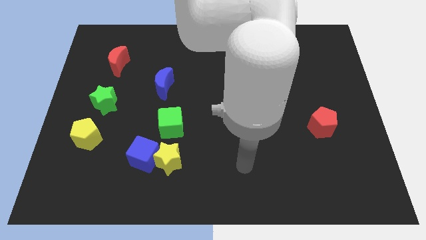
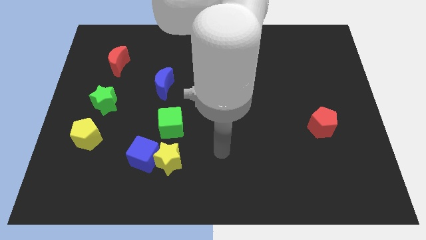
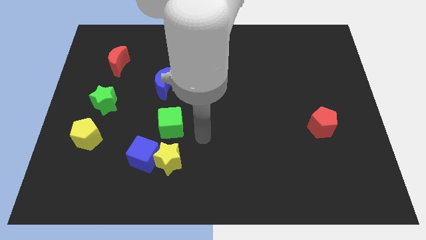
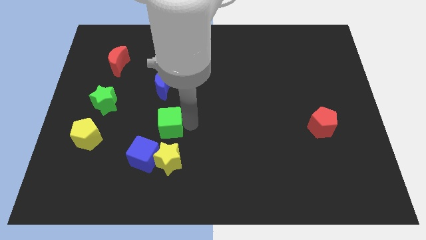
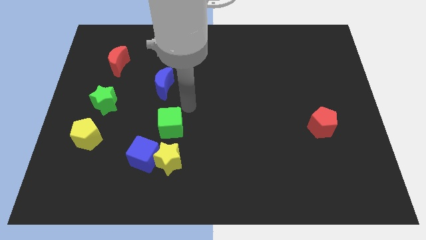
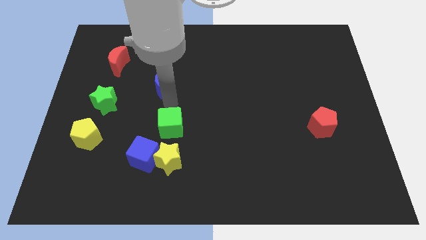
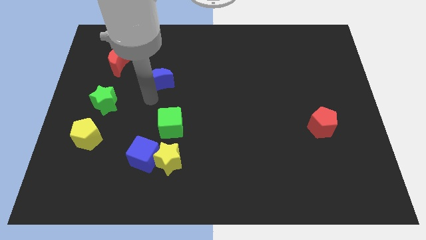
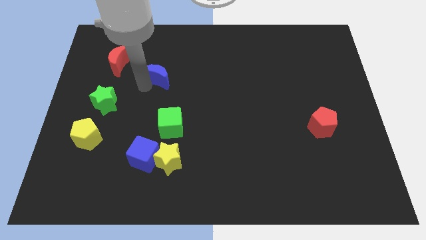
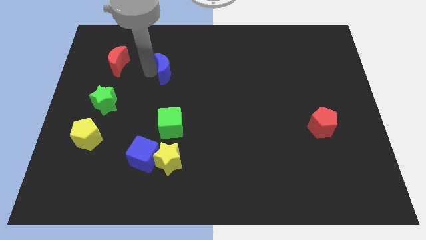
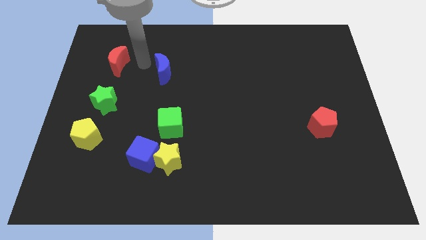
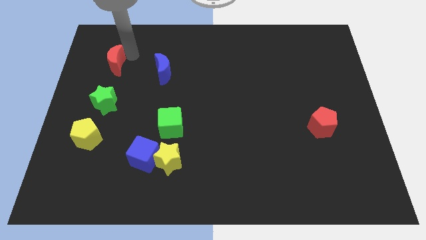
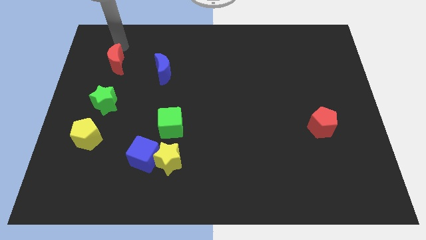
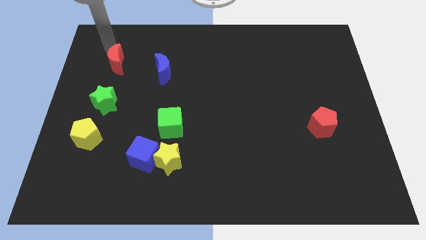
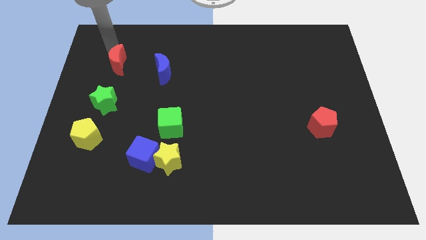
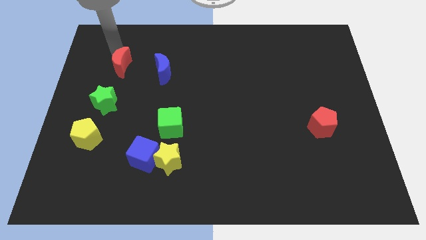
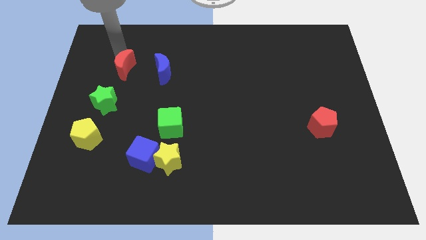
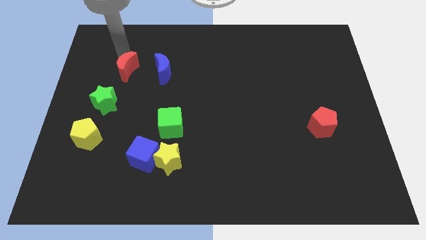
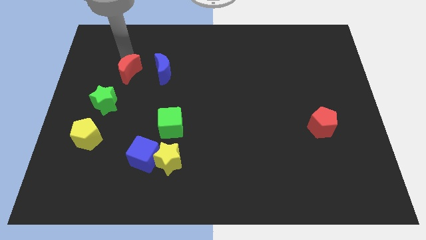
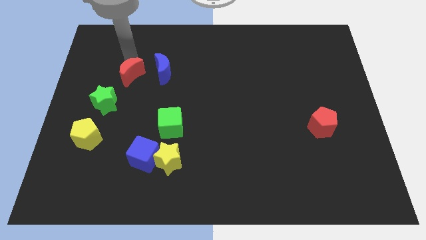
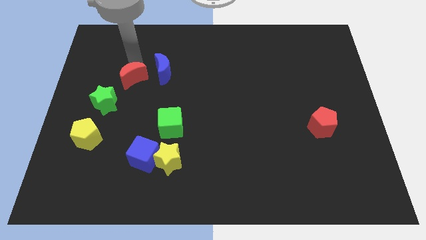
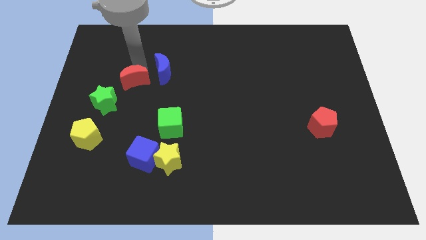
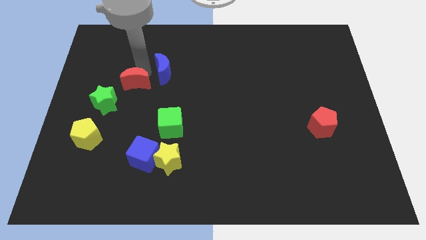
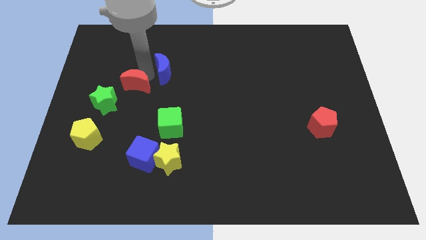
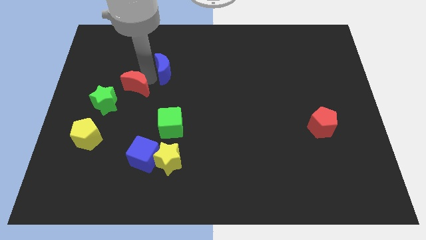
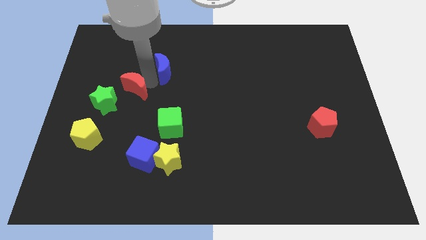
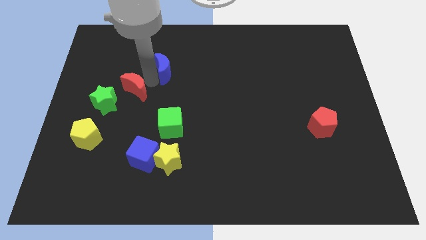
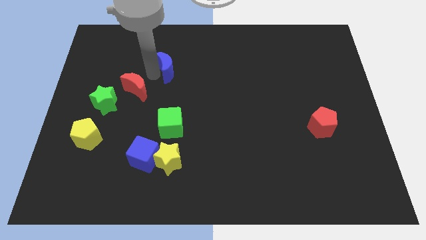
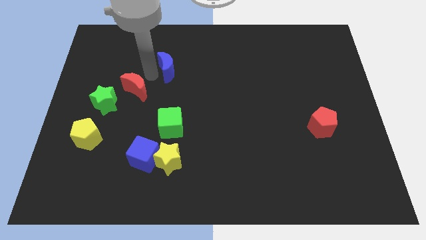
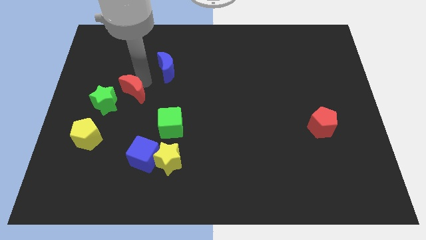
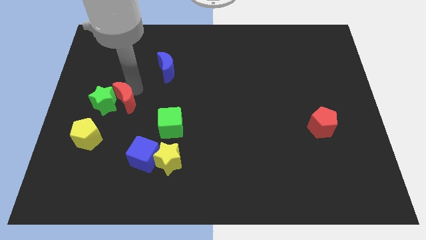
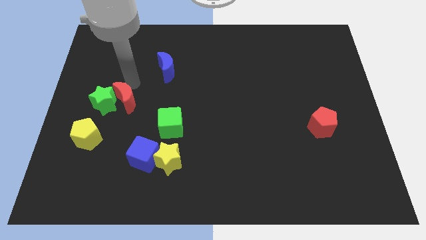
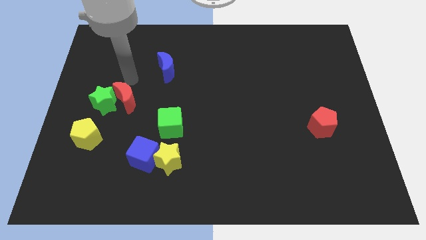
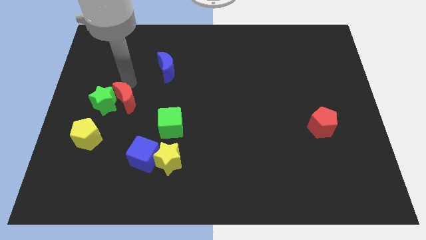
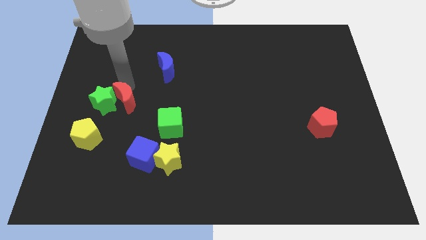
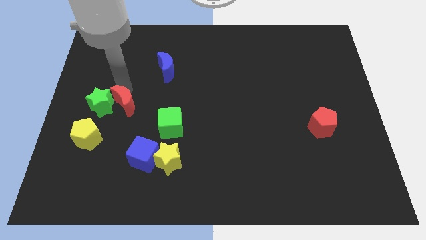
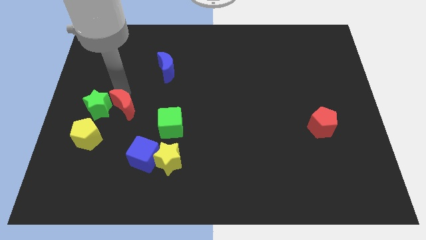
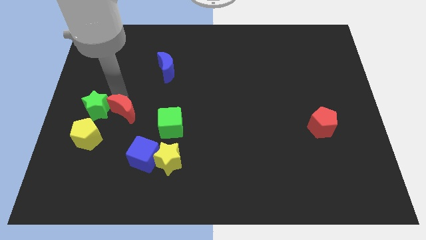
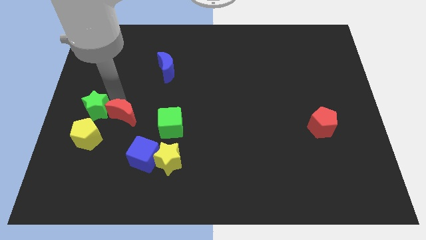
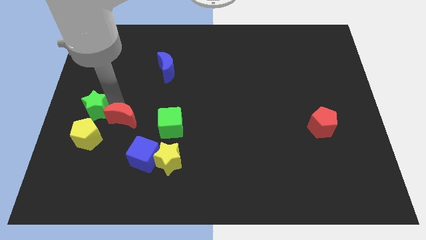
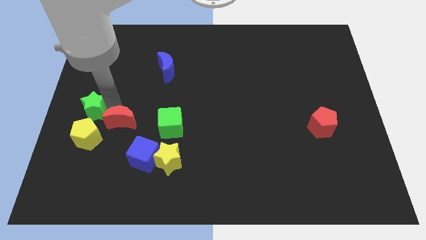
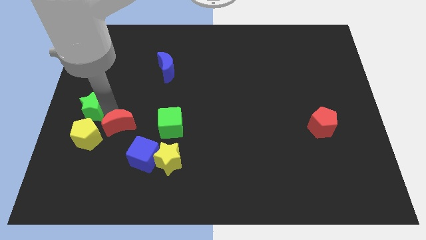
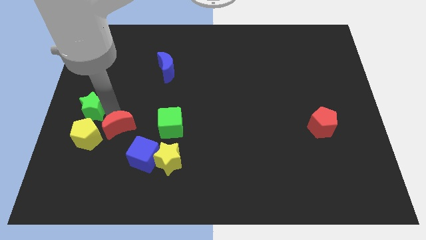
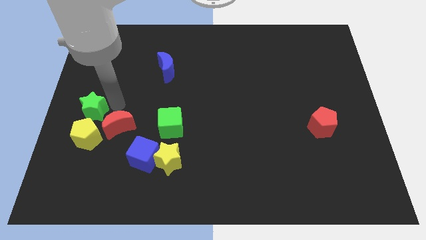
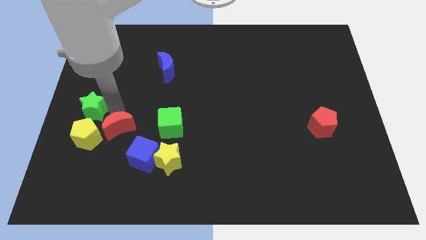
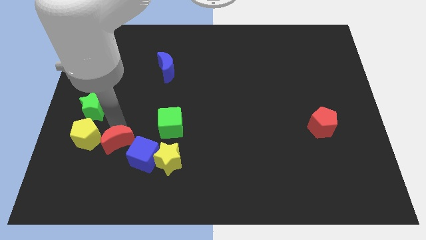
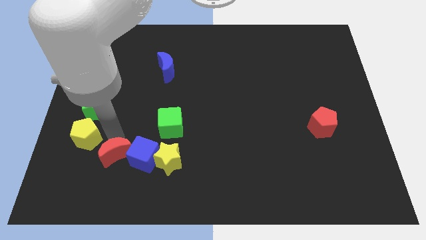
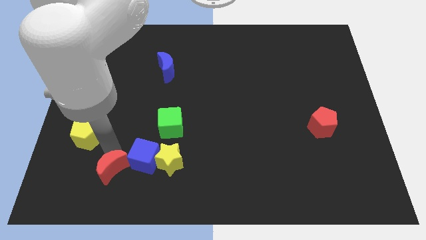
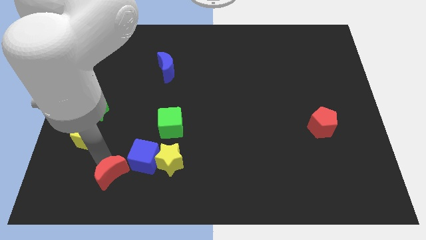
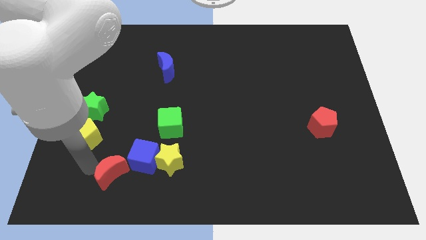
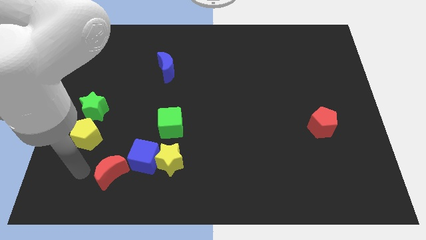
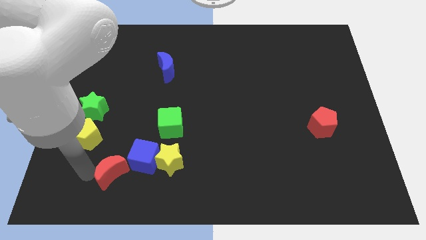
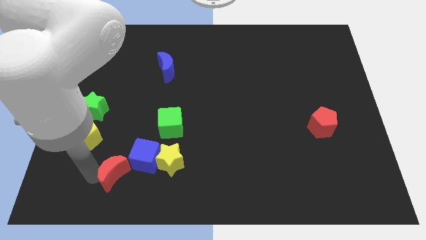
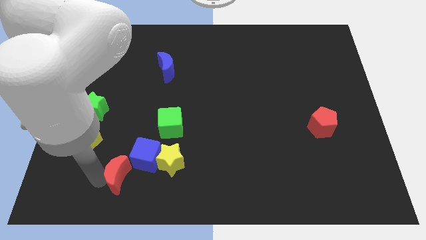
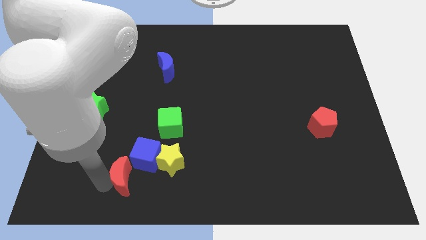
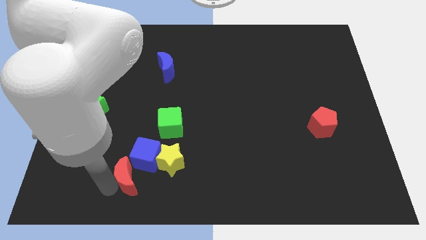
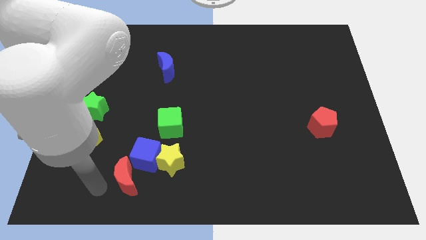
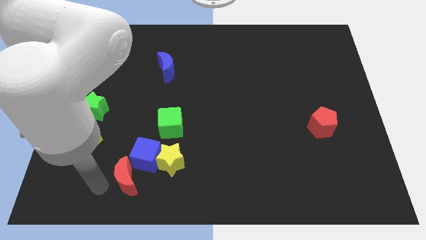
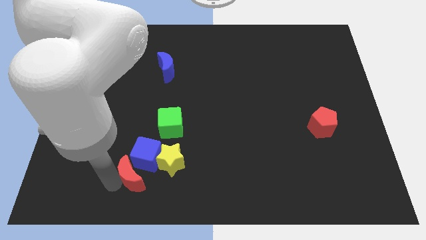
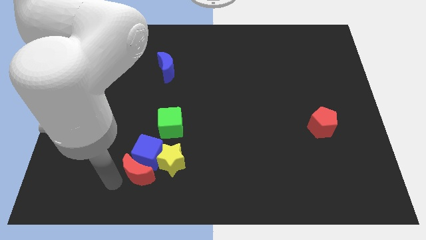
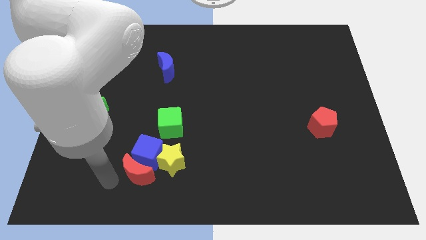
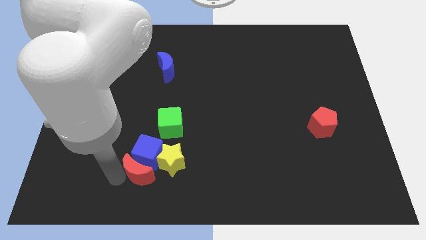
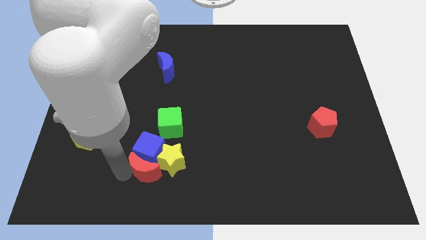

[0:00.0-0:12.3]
slide the red moon to the bottom side of the green cube

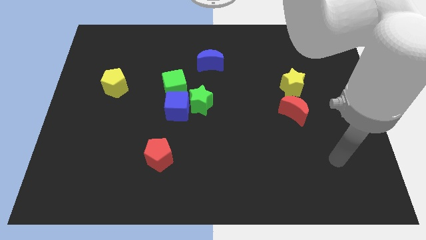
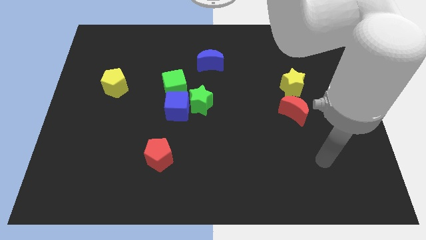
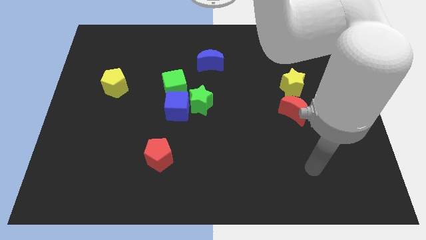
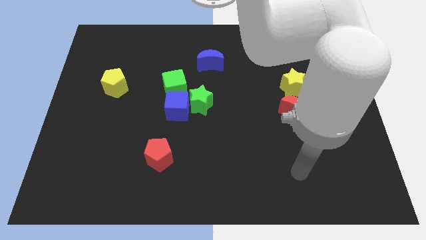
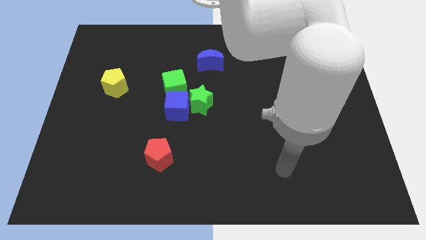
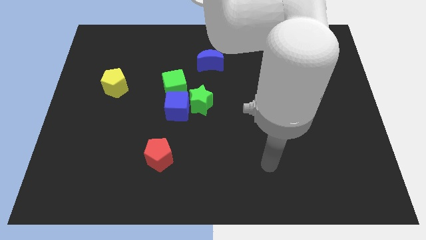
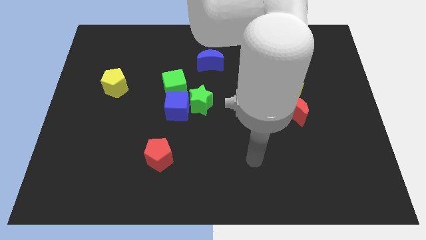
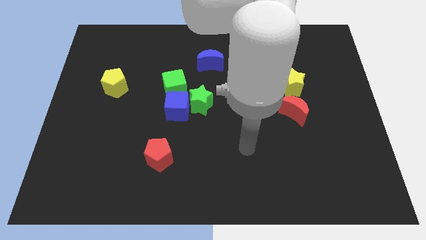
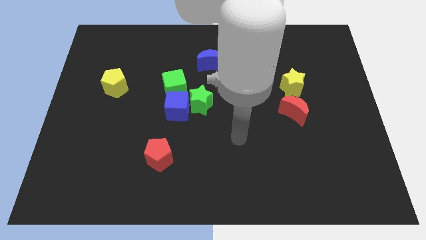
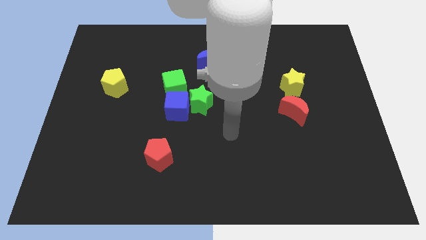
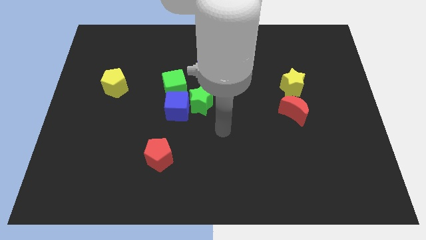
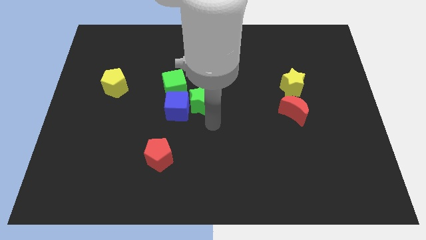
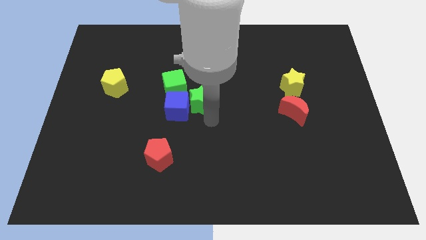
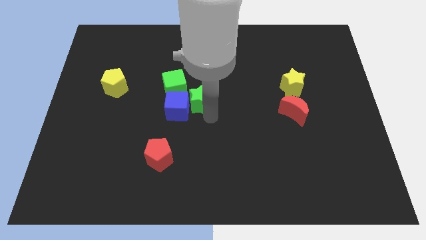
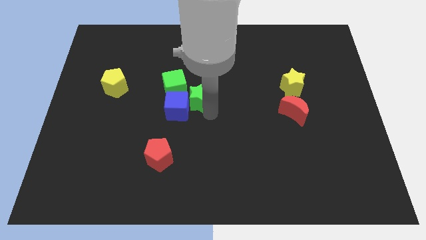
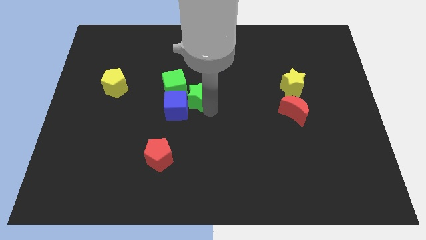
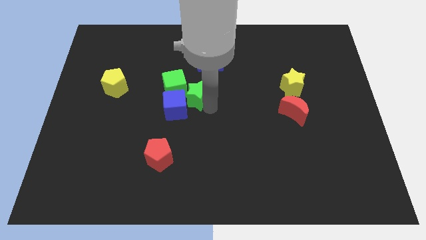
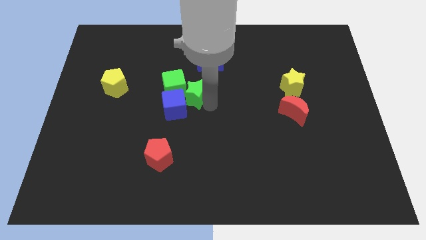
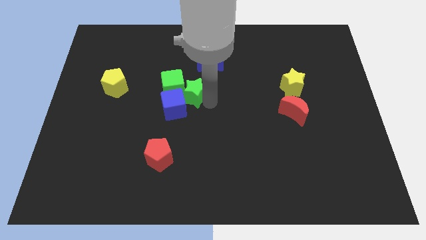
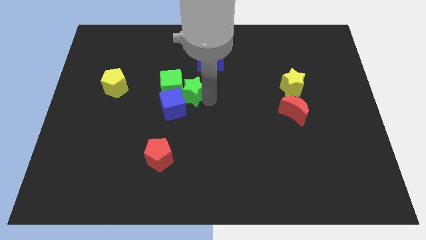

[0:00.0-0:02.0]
push the green star to the bottom left side of the blue moon
